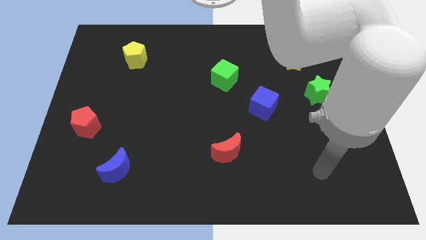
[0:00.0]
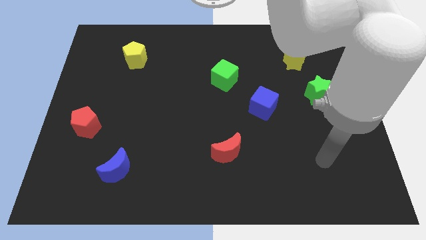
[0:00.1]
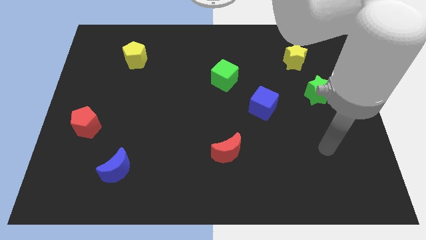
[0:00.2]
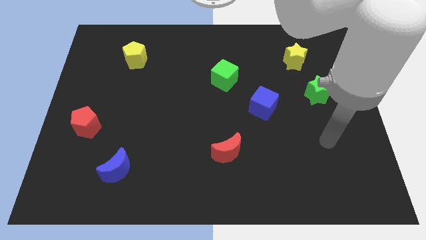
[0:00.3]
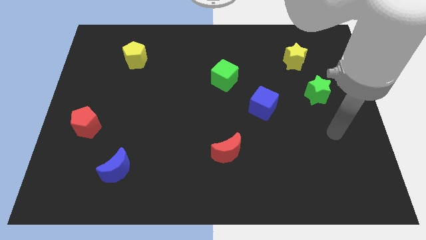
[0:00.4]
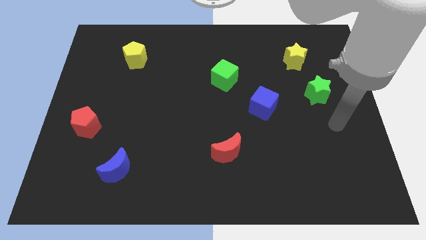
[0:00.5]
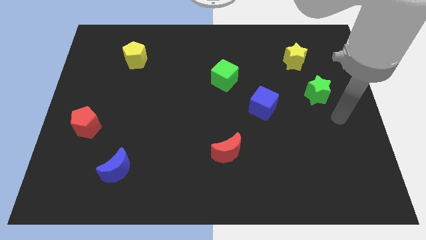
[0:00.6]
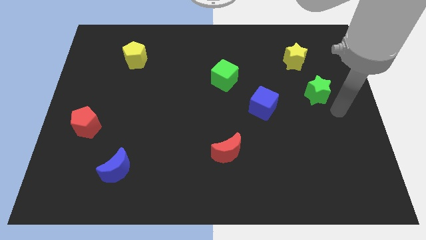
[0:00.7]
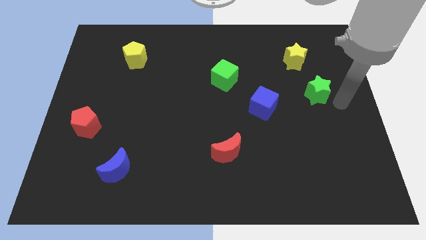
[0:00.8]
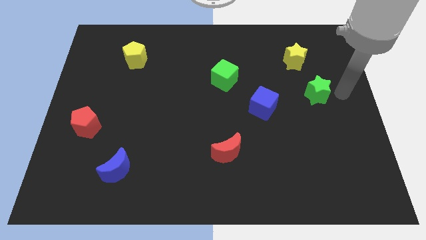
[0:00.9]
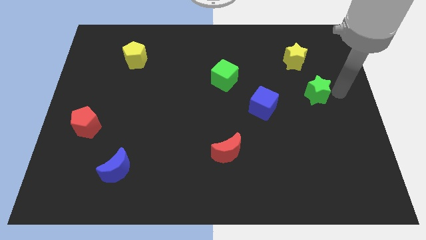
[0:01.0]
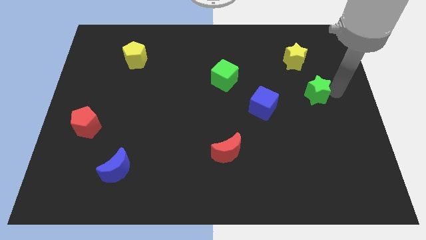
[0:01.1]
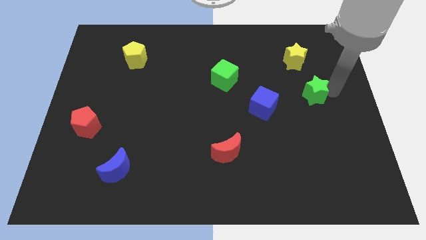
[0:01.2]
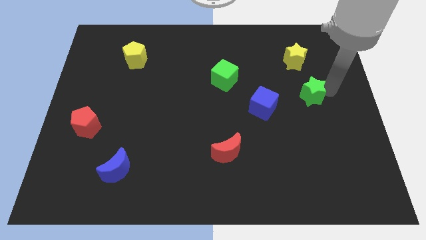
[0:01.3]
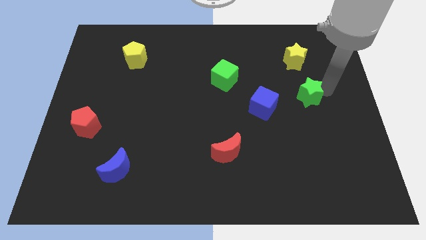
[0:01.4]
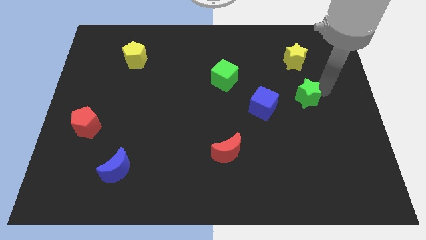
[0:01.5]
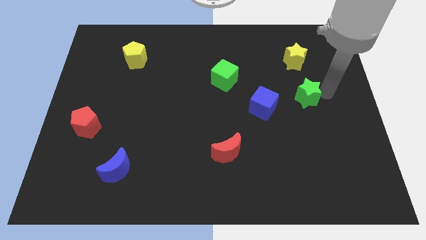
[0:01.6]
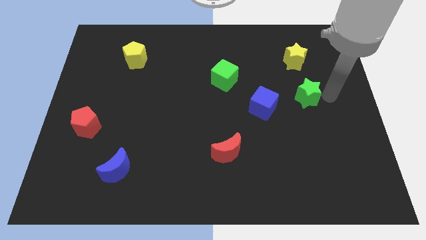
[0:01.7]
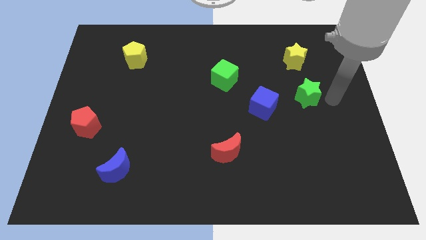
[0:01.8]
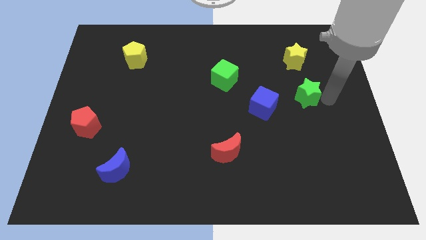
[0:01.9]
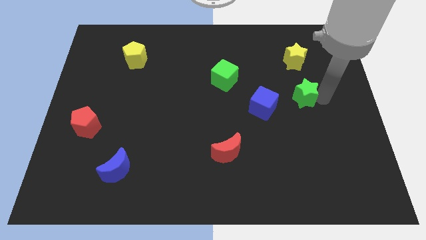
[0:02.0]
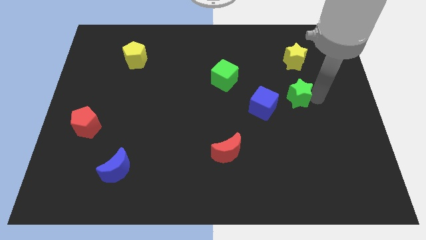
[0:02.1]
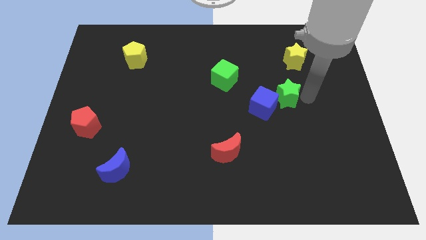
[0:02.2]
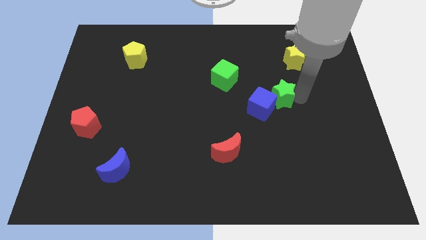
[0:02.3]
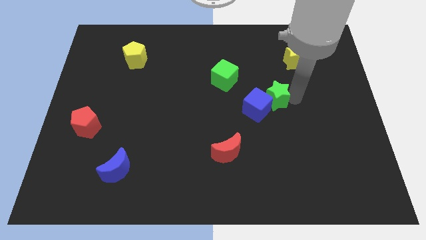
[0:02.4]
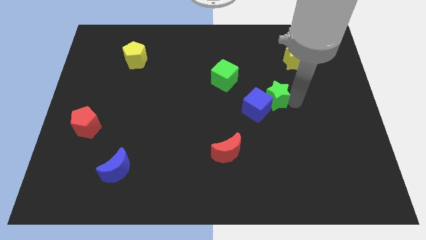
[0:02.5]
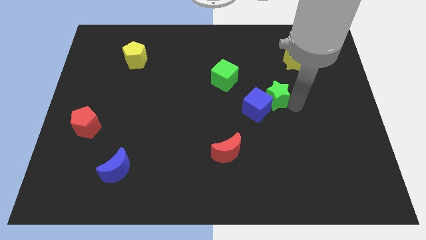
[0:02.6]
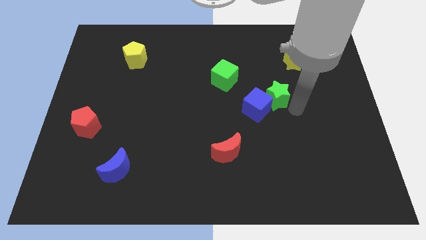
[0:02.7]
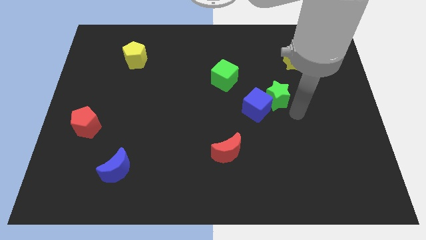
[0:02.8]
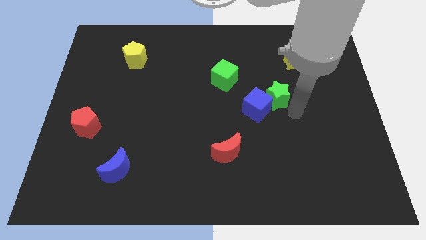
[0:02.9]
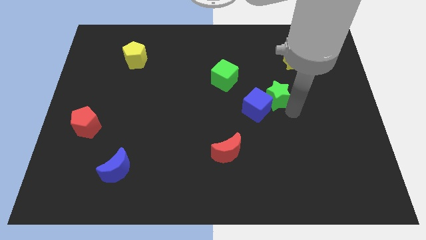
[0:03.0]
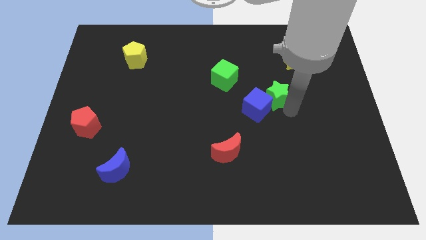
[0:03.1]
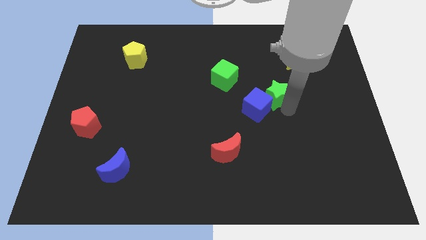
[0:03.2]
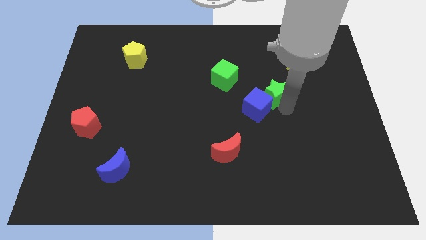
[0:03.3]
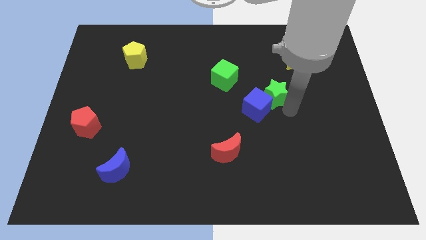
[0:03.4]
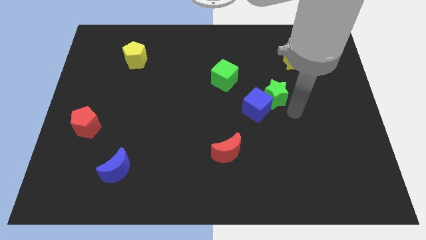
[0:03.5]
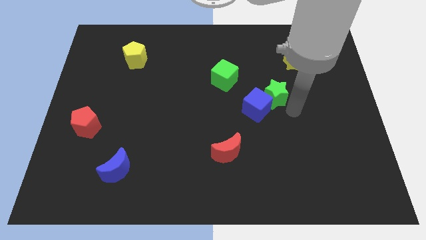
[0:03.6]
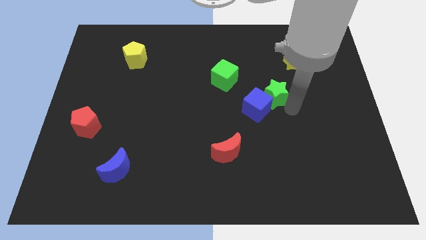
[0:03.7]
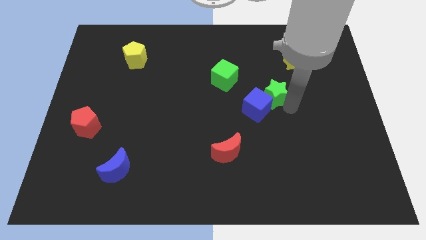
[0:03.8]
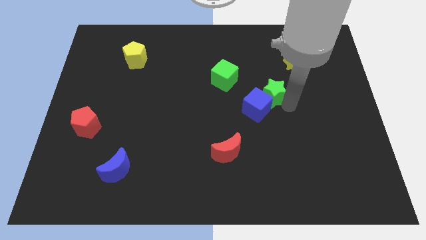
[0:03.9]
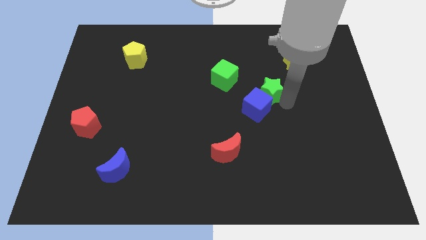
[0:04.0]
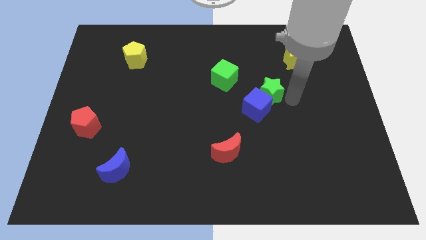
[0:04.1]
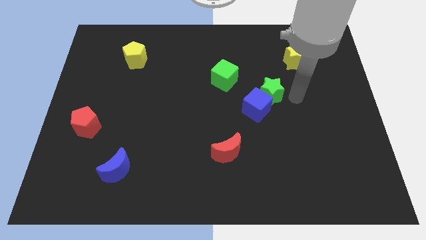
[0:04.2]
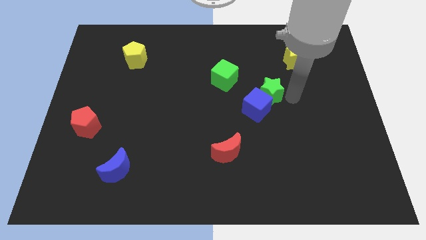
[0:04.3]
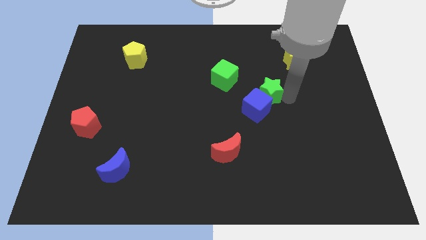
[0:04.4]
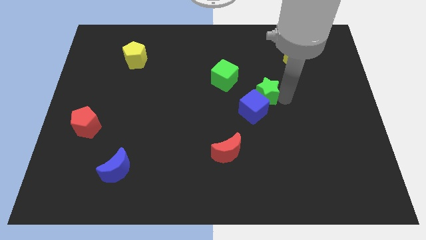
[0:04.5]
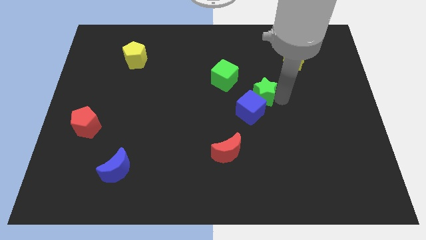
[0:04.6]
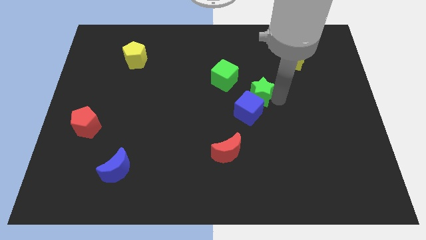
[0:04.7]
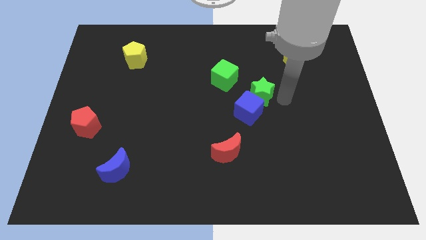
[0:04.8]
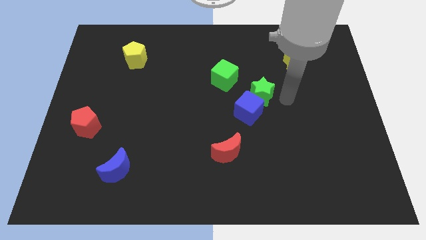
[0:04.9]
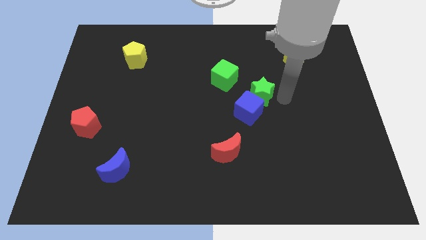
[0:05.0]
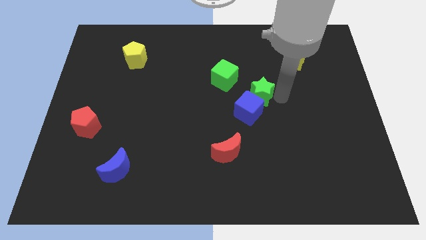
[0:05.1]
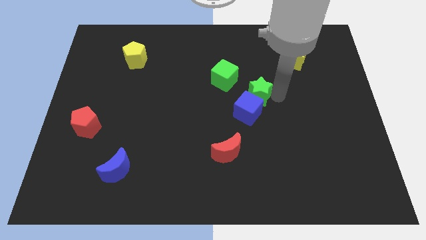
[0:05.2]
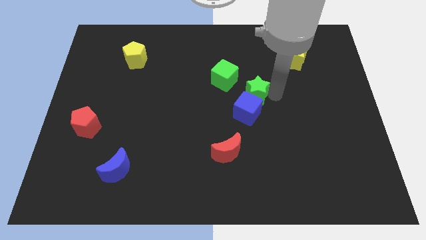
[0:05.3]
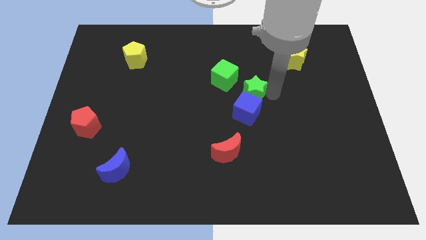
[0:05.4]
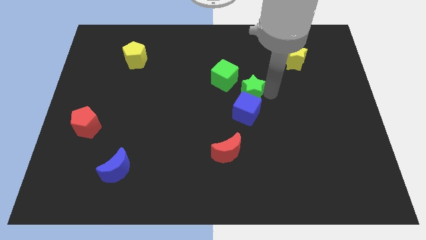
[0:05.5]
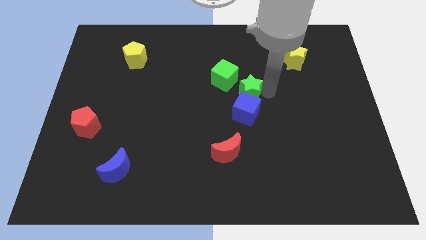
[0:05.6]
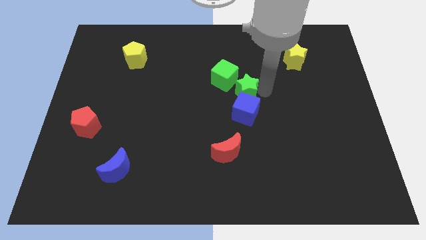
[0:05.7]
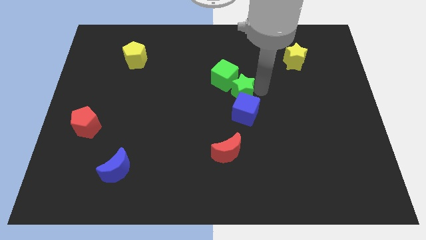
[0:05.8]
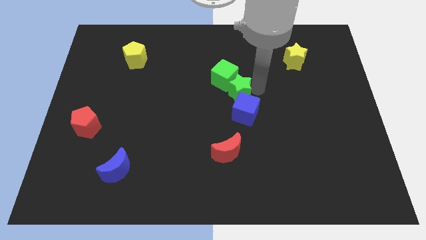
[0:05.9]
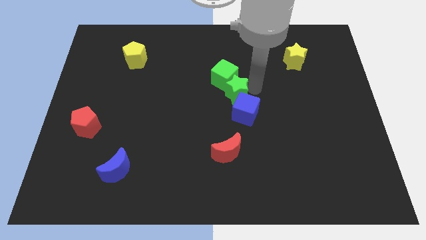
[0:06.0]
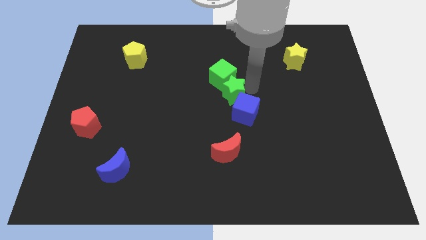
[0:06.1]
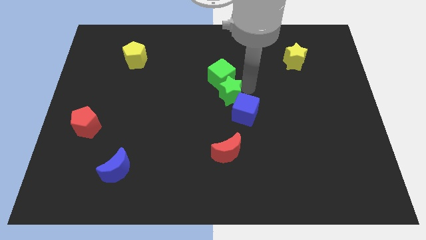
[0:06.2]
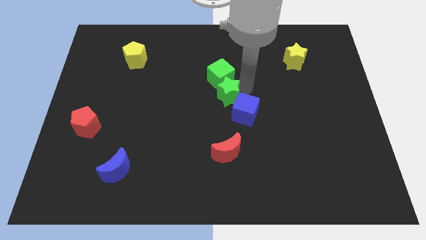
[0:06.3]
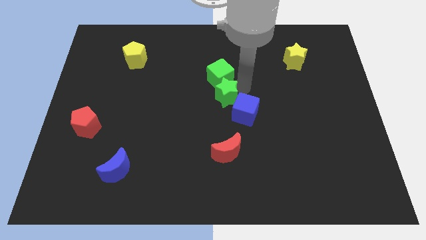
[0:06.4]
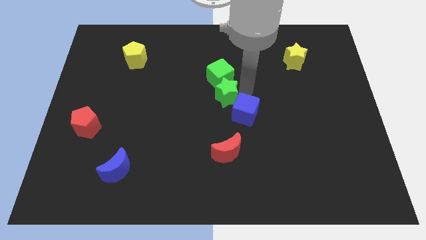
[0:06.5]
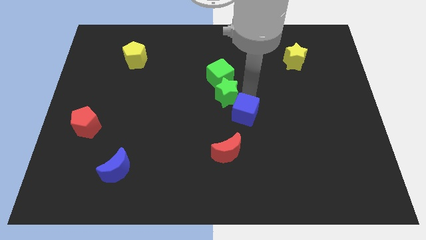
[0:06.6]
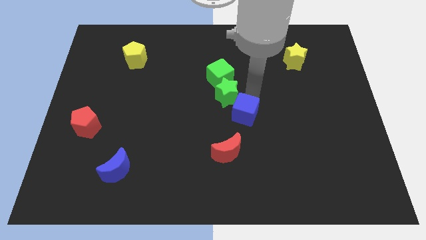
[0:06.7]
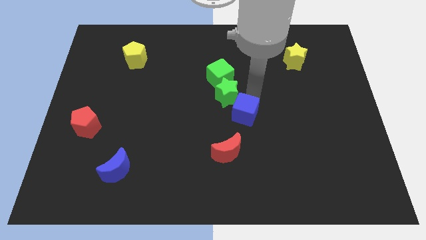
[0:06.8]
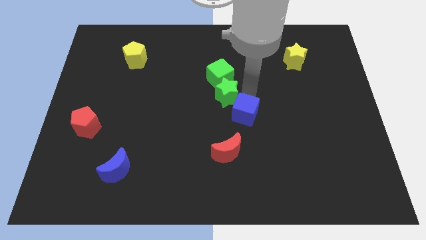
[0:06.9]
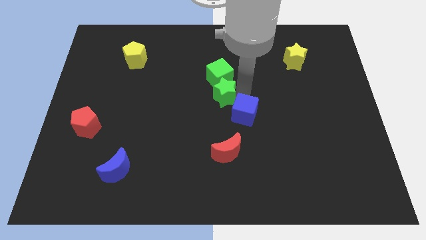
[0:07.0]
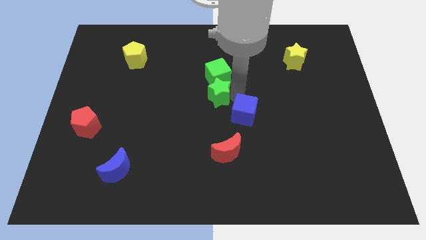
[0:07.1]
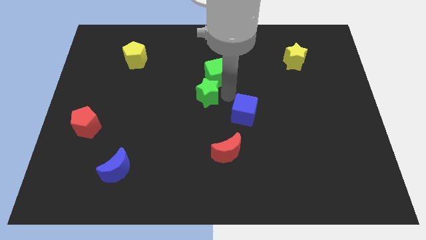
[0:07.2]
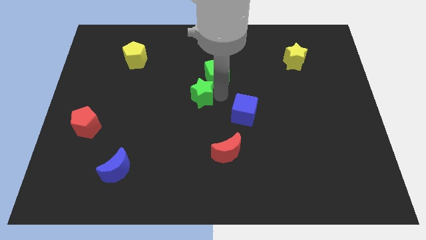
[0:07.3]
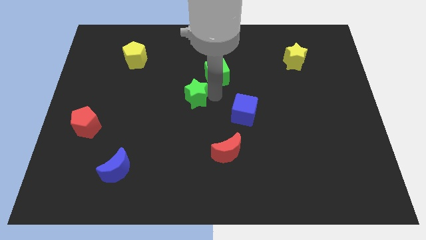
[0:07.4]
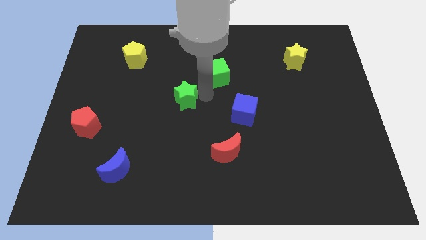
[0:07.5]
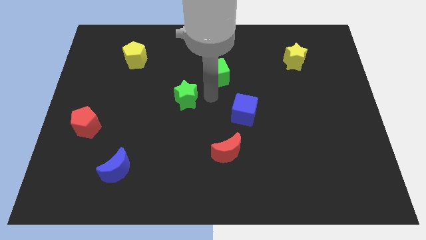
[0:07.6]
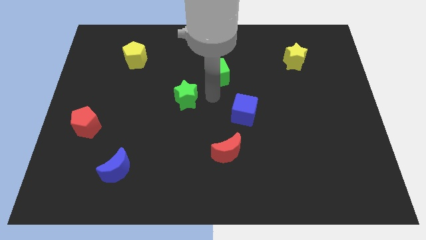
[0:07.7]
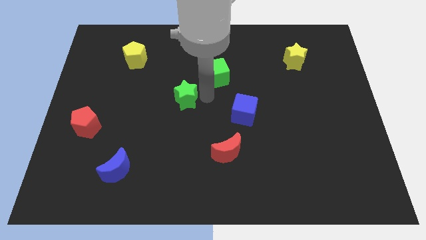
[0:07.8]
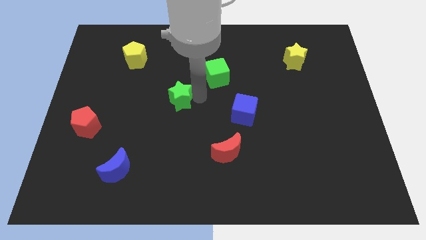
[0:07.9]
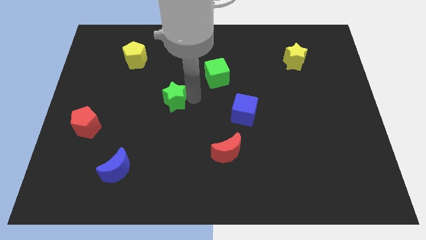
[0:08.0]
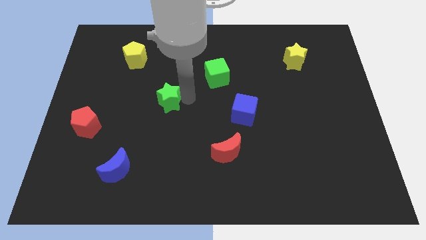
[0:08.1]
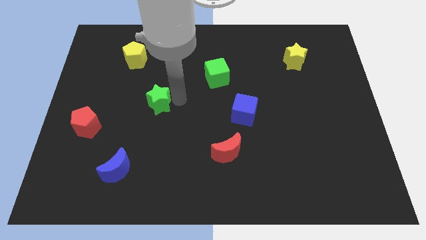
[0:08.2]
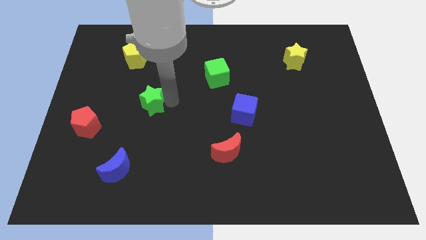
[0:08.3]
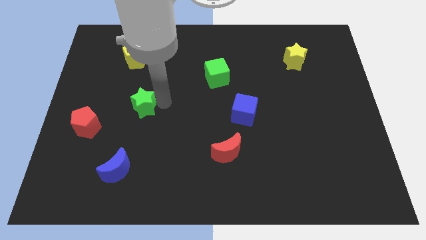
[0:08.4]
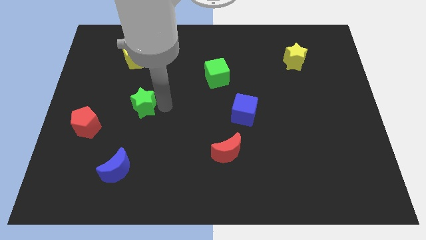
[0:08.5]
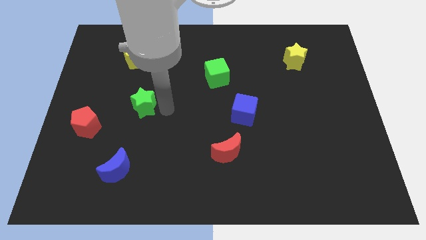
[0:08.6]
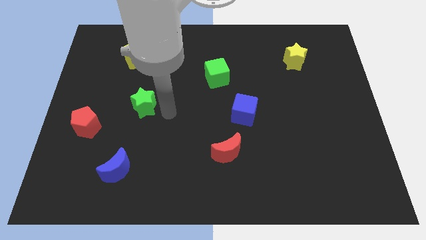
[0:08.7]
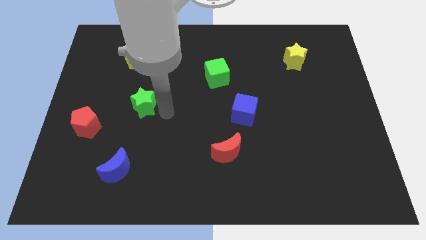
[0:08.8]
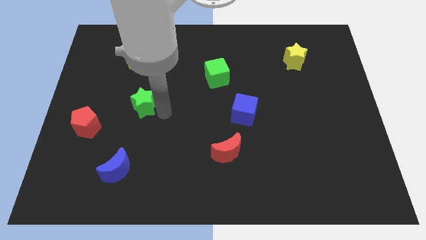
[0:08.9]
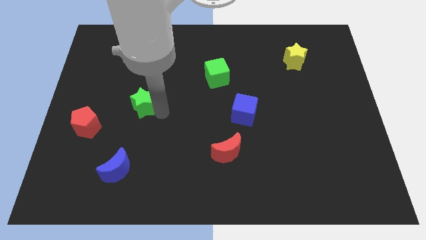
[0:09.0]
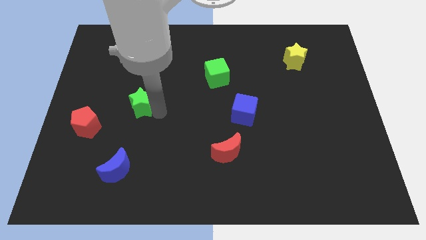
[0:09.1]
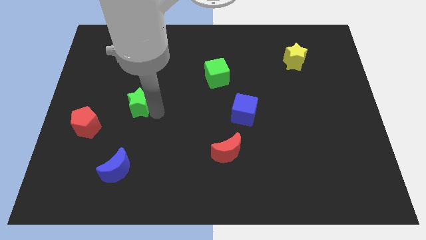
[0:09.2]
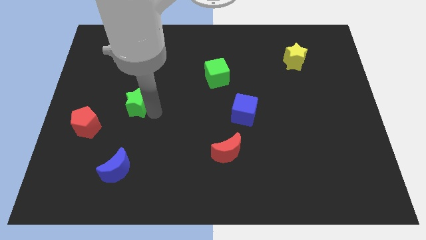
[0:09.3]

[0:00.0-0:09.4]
push the green star diagonally up and to the right of the red pentagon
